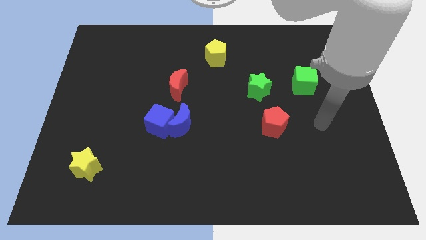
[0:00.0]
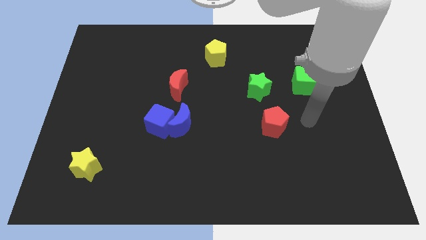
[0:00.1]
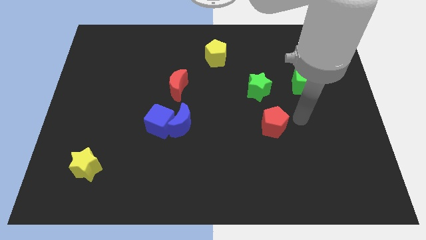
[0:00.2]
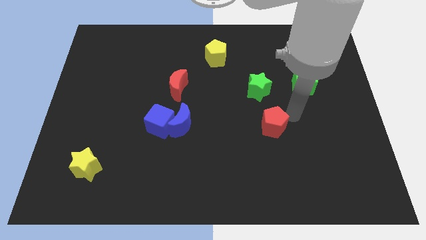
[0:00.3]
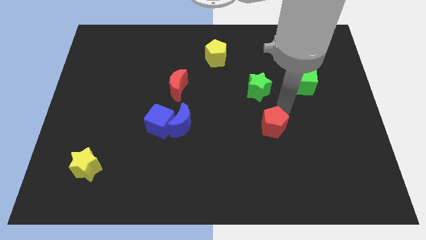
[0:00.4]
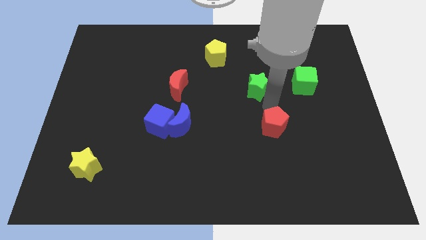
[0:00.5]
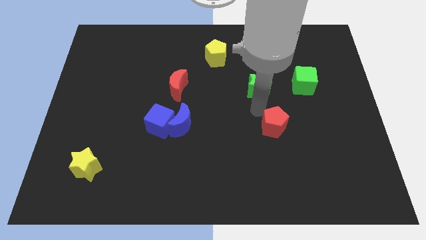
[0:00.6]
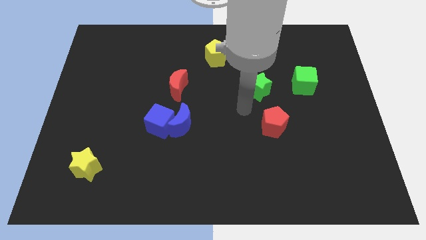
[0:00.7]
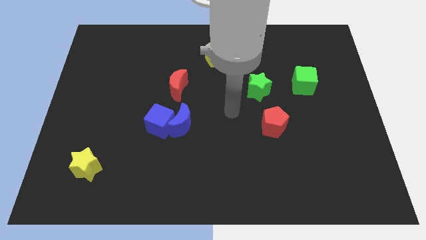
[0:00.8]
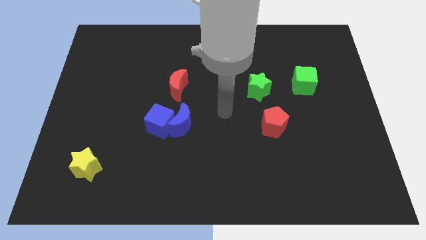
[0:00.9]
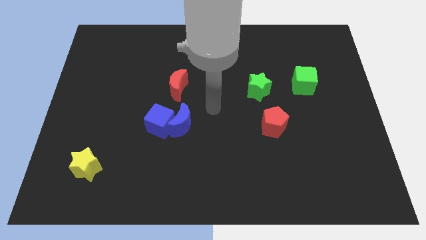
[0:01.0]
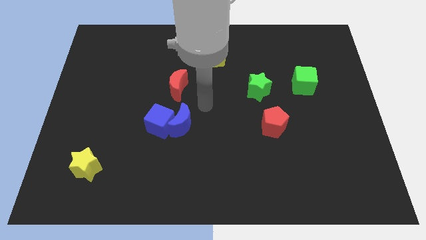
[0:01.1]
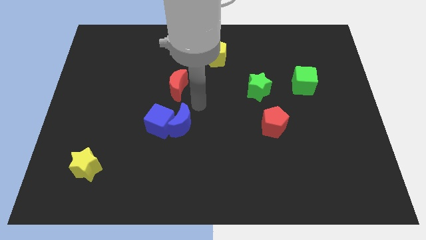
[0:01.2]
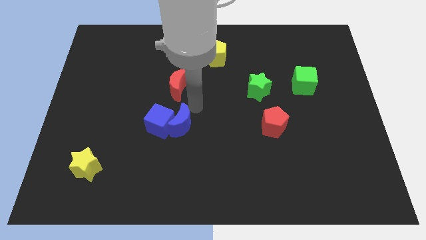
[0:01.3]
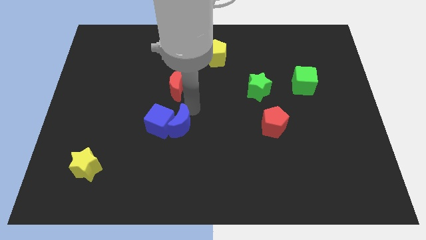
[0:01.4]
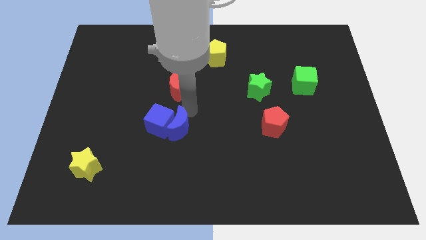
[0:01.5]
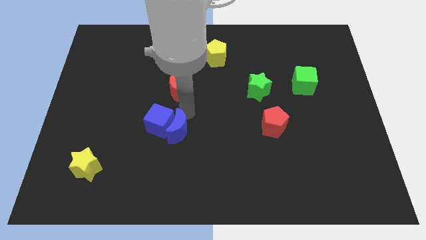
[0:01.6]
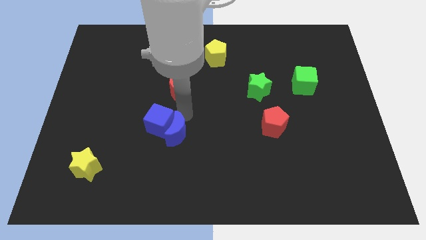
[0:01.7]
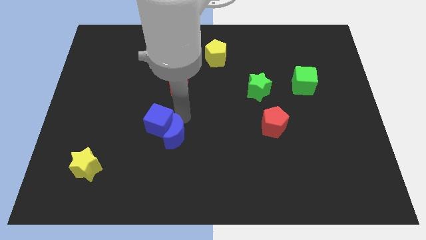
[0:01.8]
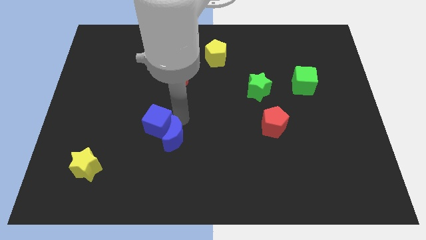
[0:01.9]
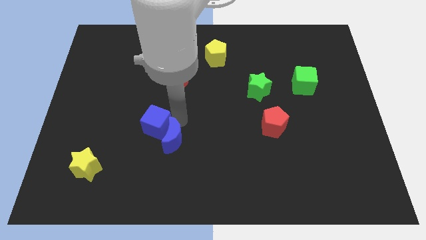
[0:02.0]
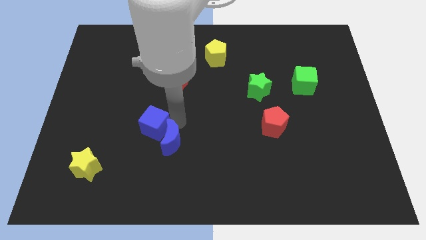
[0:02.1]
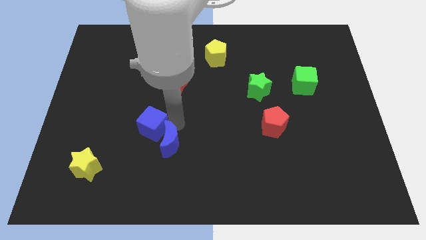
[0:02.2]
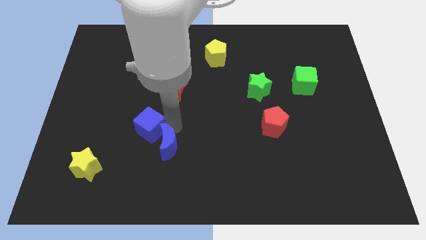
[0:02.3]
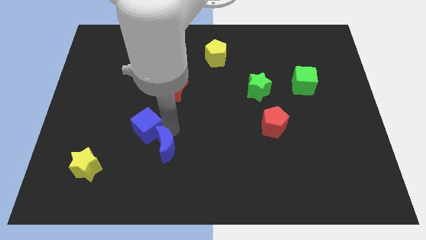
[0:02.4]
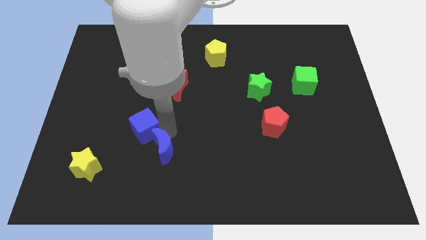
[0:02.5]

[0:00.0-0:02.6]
slide the blue moon a little down and to the left diagonally

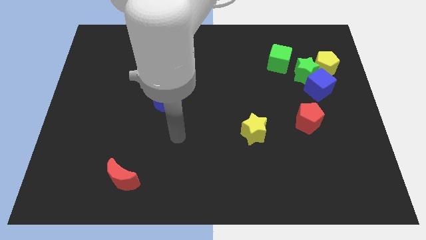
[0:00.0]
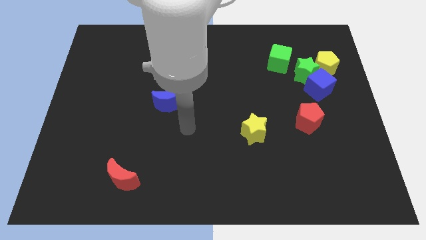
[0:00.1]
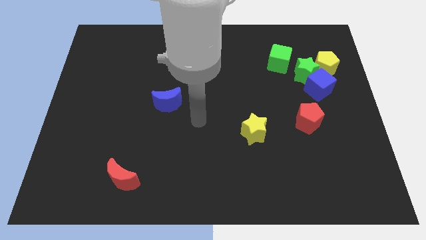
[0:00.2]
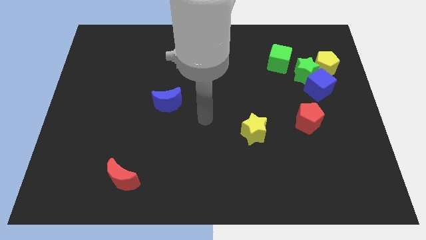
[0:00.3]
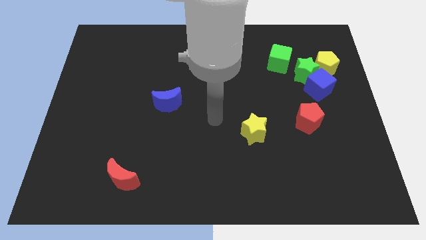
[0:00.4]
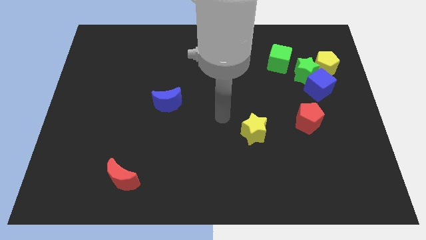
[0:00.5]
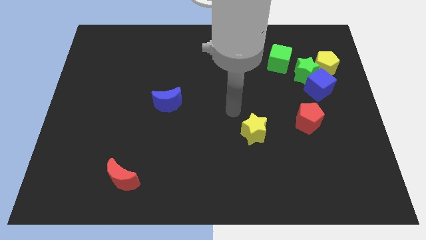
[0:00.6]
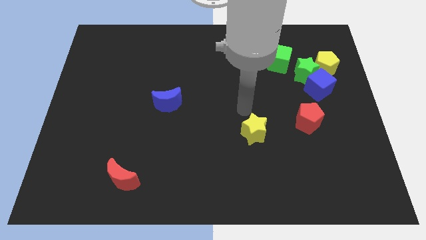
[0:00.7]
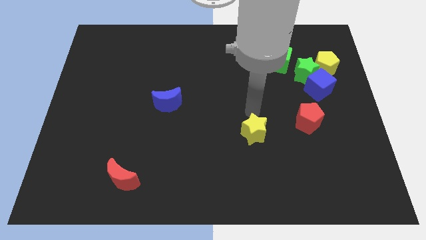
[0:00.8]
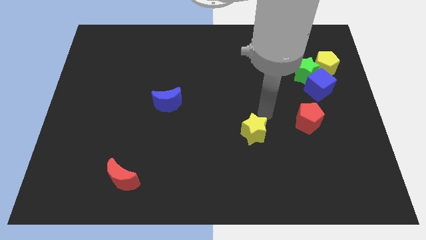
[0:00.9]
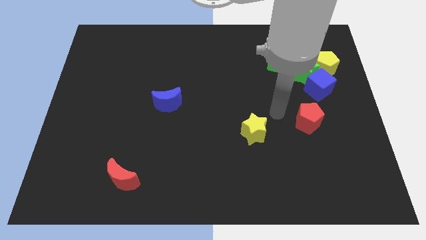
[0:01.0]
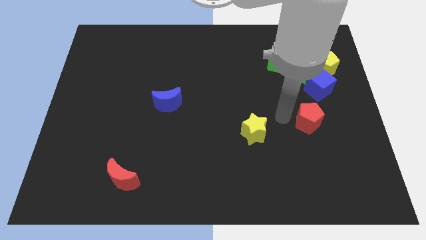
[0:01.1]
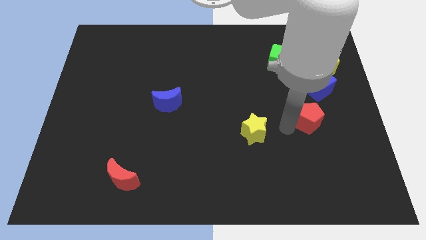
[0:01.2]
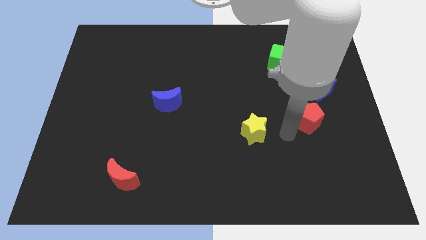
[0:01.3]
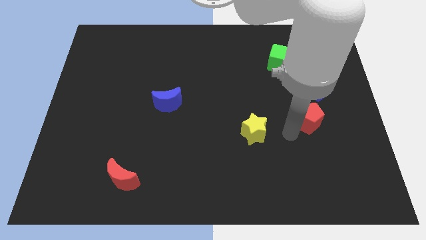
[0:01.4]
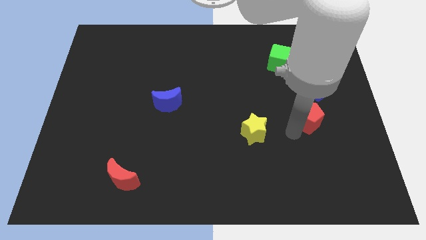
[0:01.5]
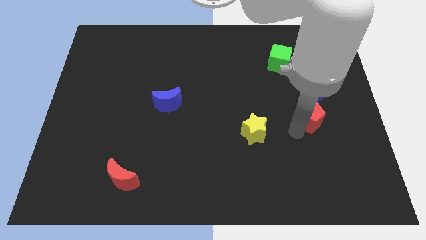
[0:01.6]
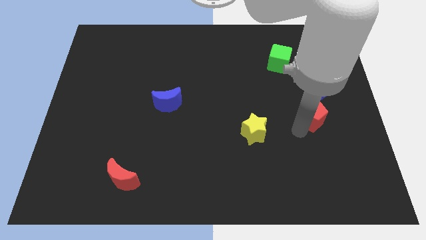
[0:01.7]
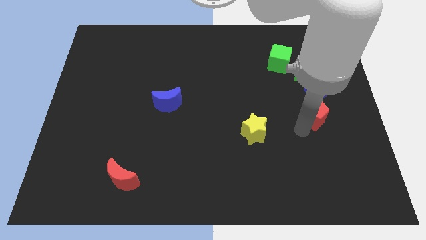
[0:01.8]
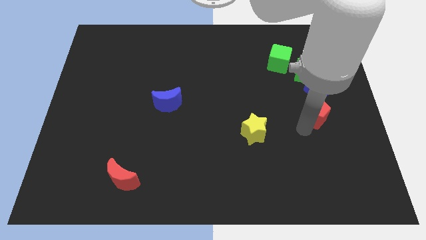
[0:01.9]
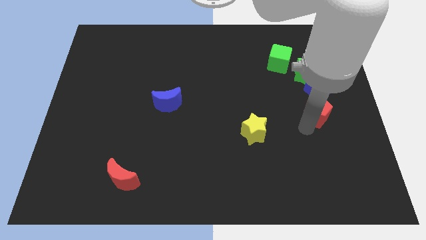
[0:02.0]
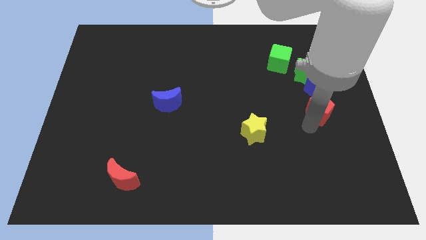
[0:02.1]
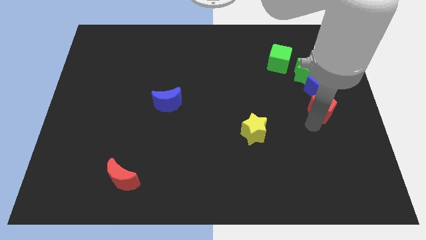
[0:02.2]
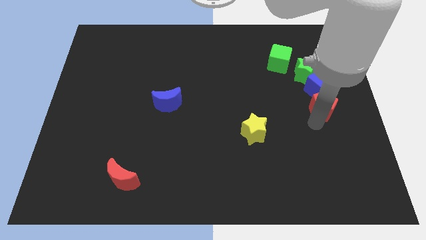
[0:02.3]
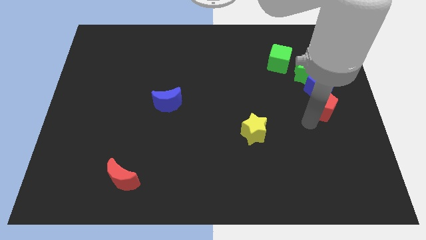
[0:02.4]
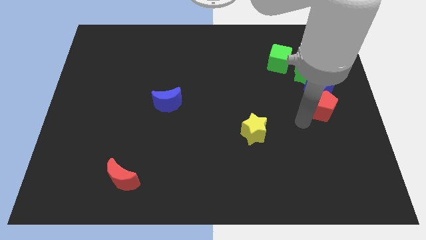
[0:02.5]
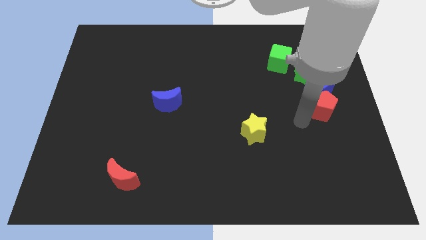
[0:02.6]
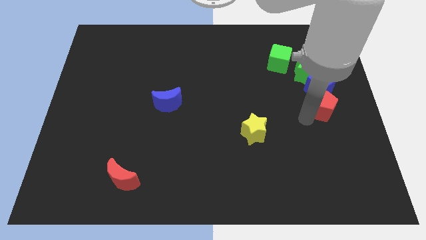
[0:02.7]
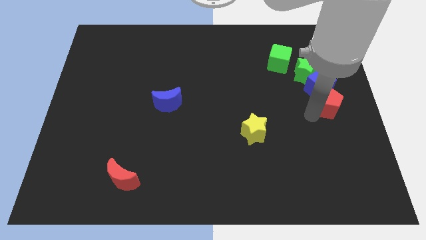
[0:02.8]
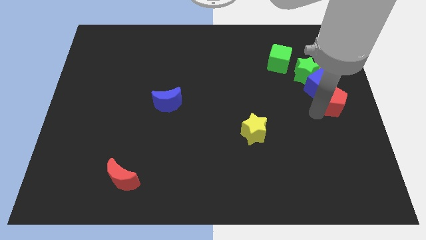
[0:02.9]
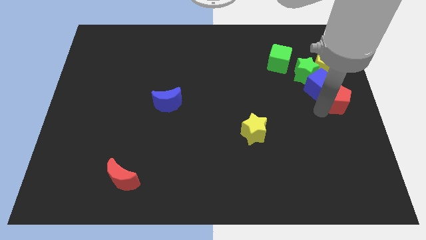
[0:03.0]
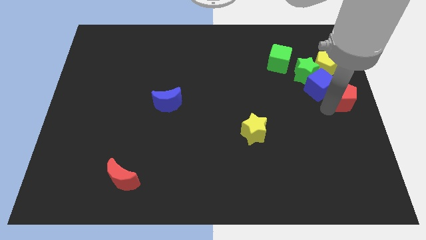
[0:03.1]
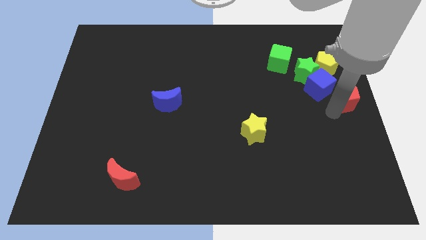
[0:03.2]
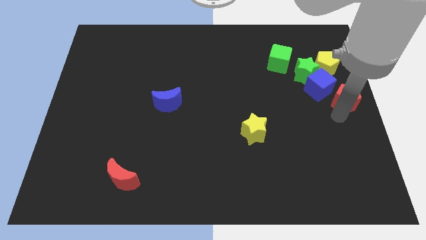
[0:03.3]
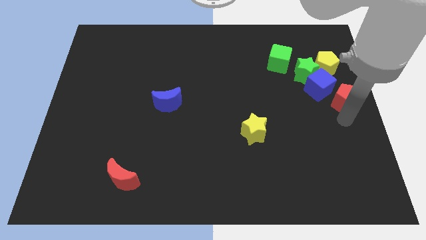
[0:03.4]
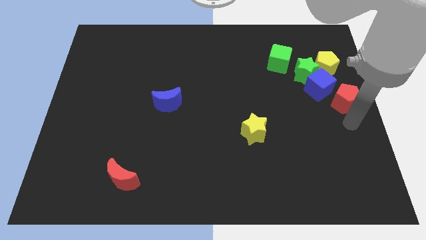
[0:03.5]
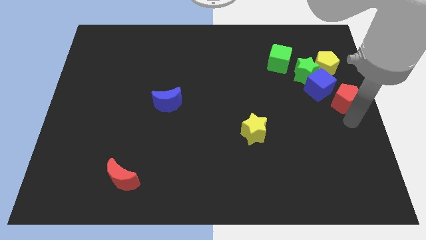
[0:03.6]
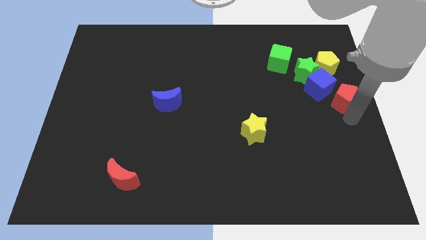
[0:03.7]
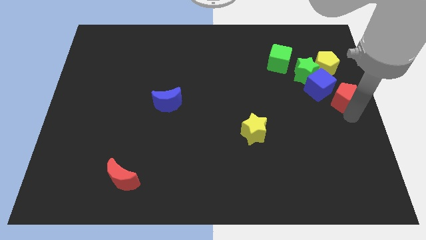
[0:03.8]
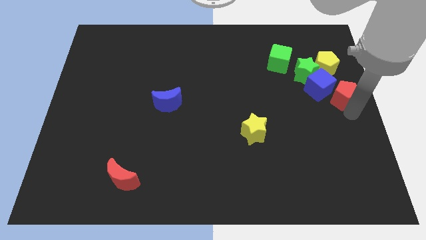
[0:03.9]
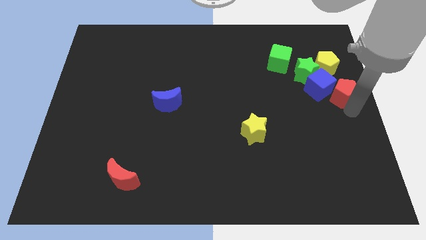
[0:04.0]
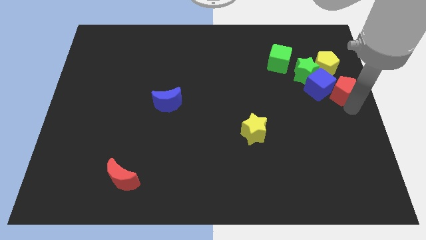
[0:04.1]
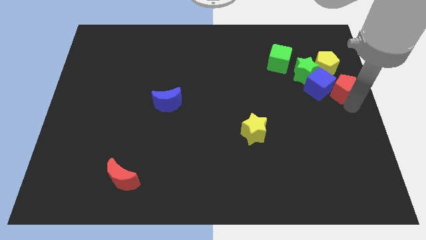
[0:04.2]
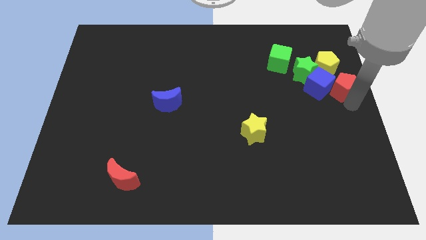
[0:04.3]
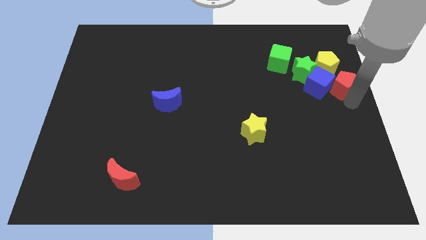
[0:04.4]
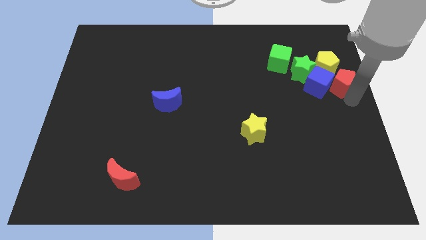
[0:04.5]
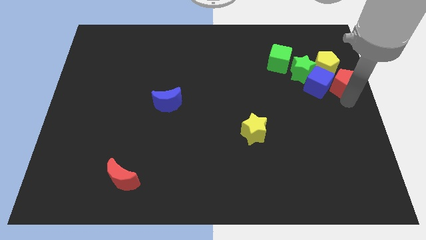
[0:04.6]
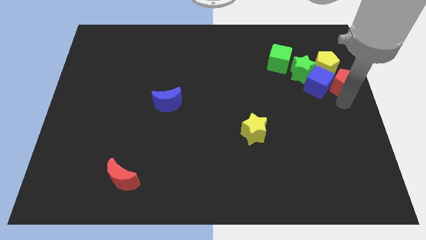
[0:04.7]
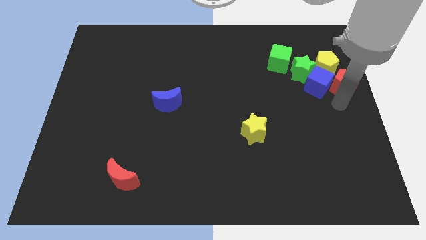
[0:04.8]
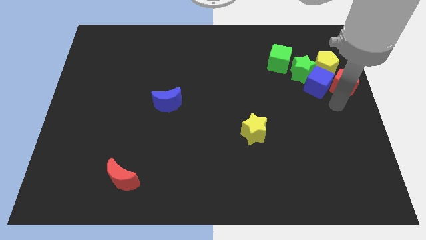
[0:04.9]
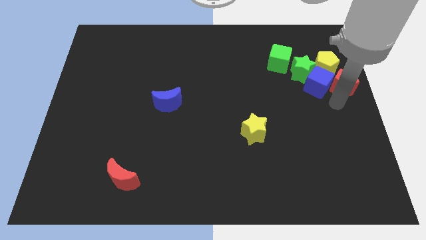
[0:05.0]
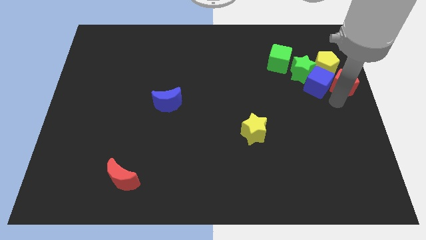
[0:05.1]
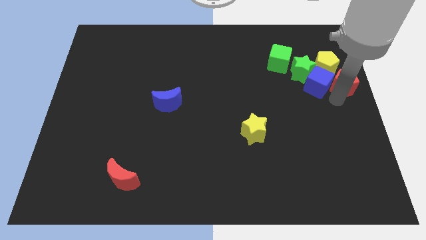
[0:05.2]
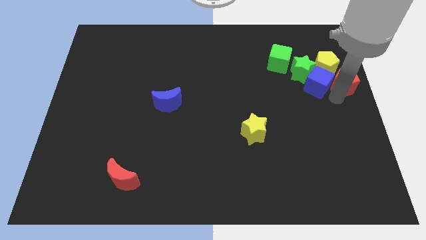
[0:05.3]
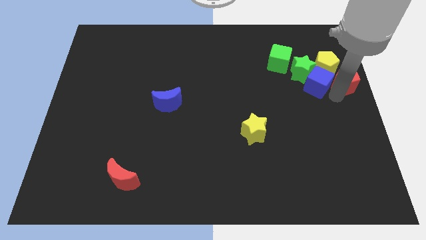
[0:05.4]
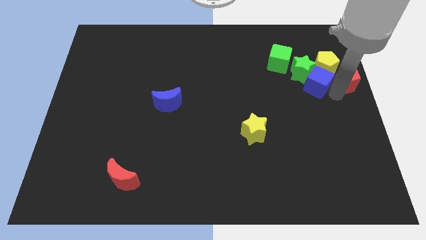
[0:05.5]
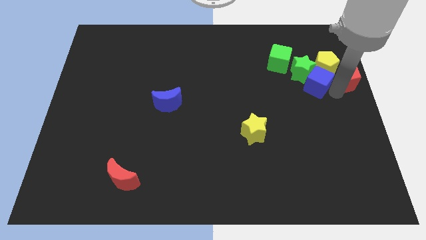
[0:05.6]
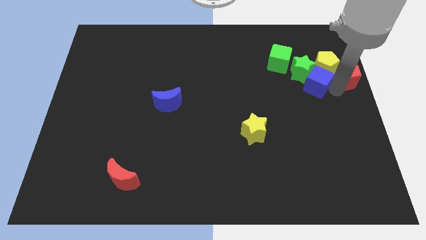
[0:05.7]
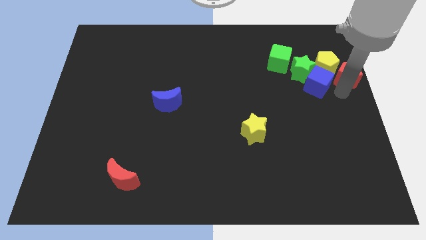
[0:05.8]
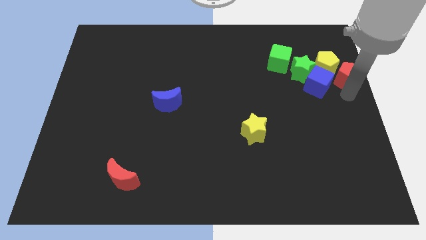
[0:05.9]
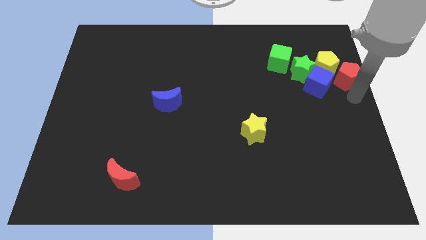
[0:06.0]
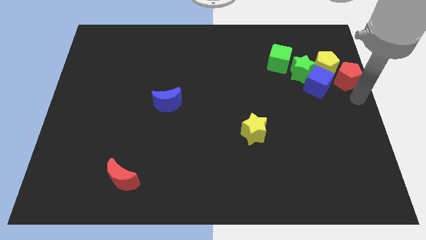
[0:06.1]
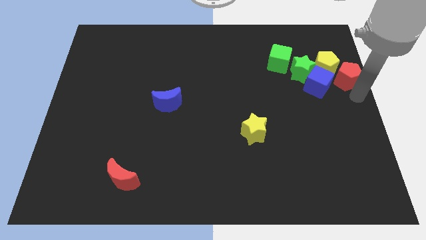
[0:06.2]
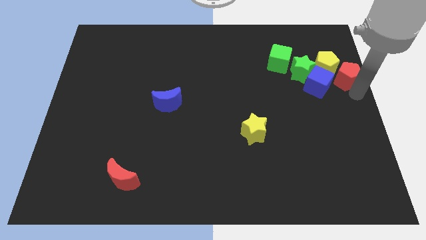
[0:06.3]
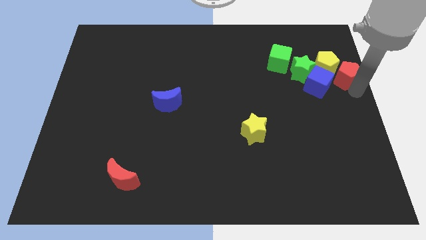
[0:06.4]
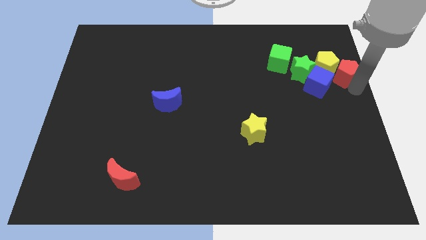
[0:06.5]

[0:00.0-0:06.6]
push the red pentagon a little up
